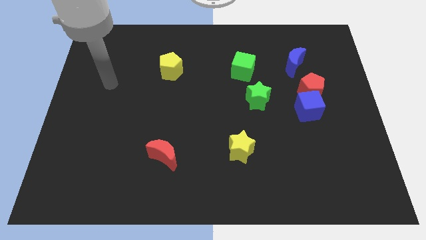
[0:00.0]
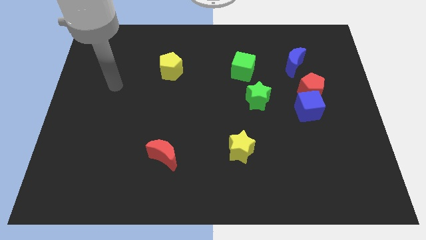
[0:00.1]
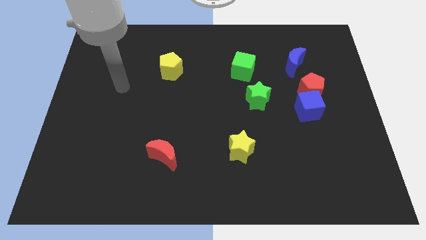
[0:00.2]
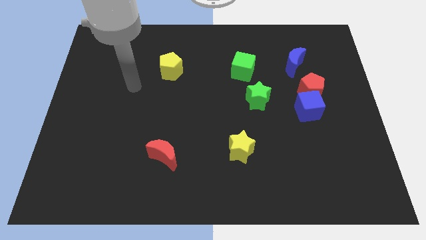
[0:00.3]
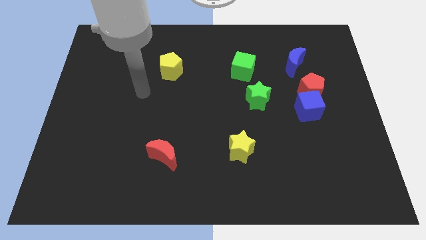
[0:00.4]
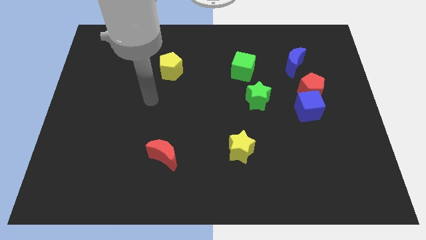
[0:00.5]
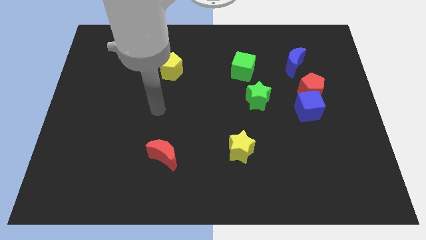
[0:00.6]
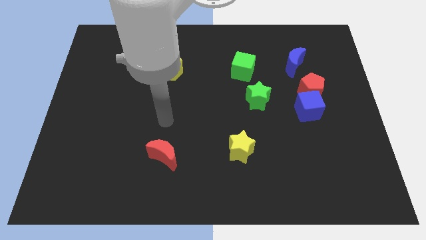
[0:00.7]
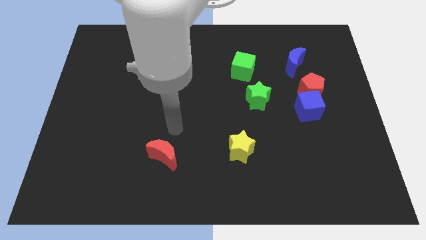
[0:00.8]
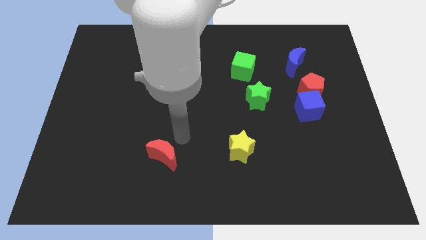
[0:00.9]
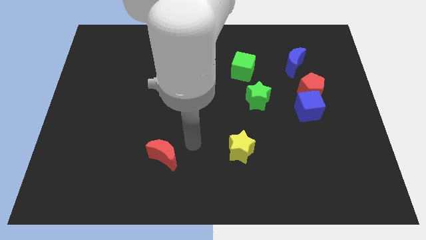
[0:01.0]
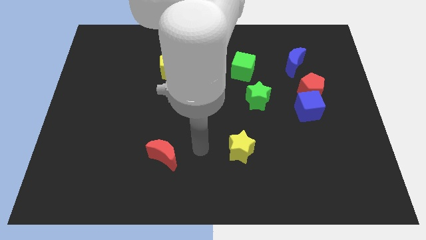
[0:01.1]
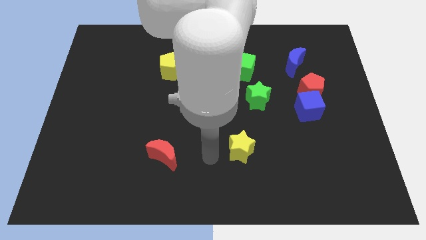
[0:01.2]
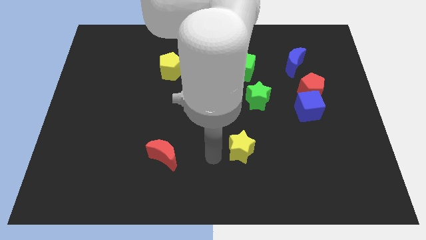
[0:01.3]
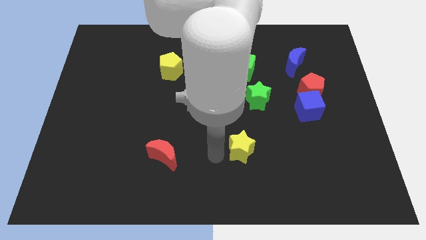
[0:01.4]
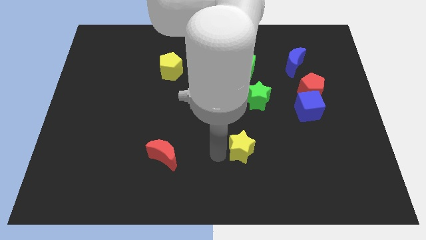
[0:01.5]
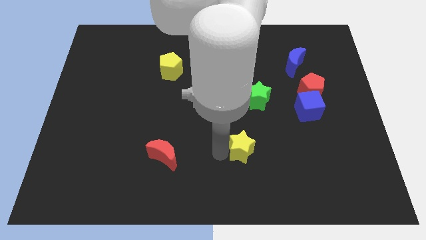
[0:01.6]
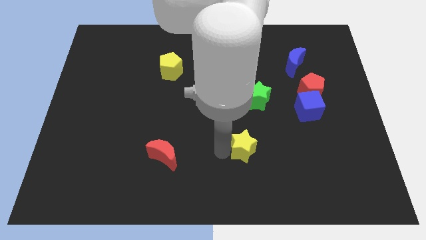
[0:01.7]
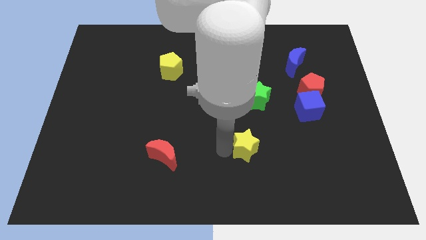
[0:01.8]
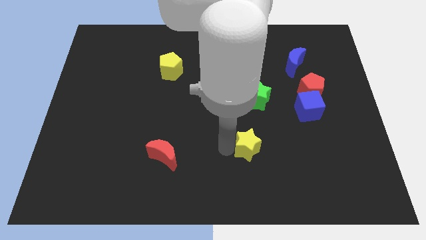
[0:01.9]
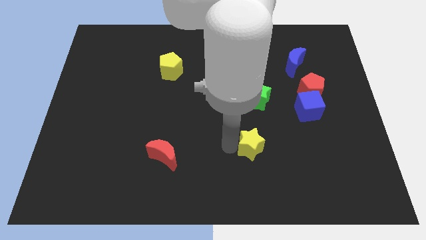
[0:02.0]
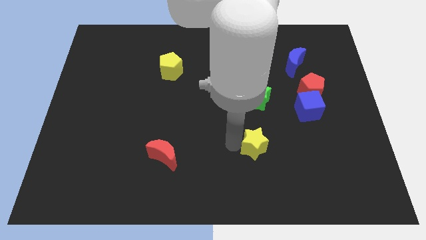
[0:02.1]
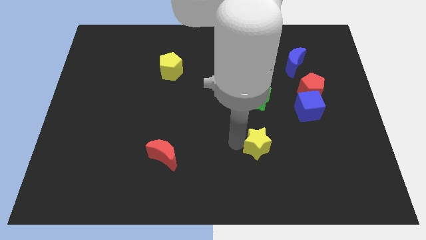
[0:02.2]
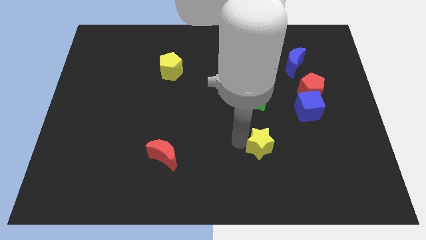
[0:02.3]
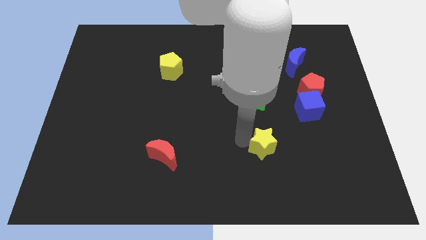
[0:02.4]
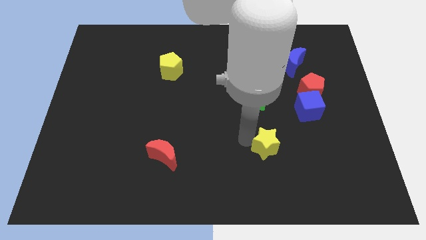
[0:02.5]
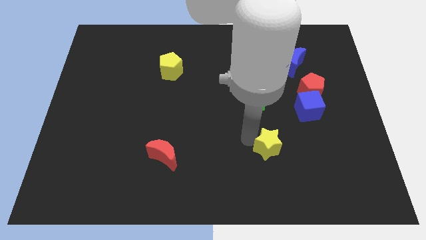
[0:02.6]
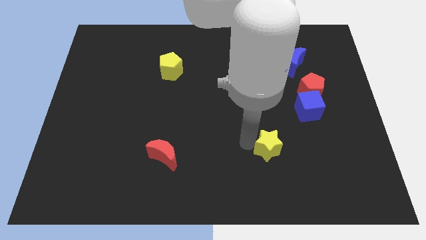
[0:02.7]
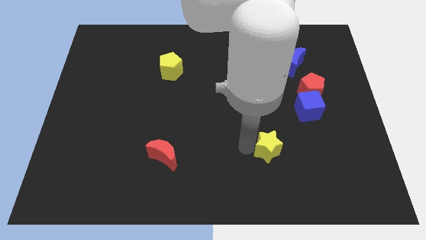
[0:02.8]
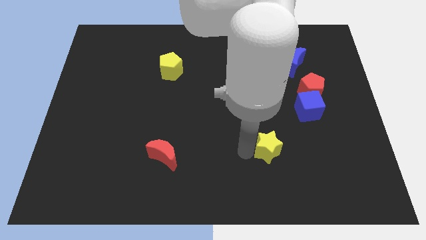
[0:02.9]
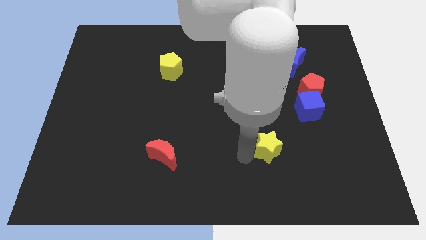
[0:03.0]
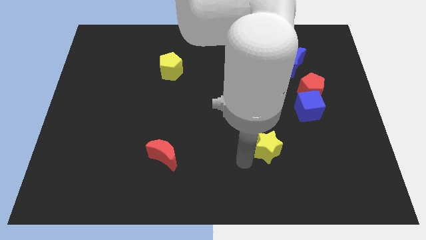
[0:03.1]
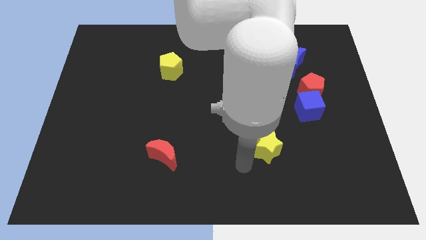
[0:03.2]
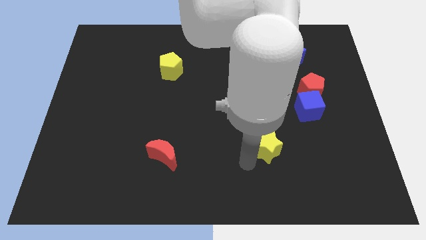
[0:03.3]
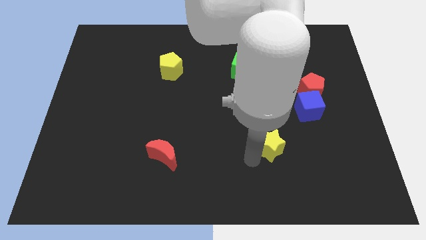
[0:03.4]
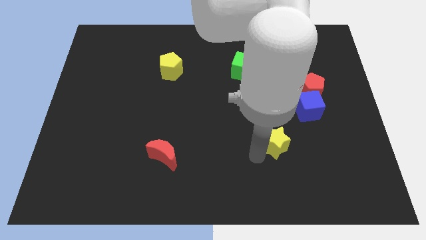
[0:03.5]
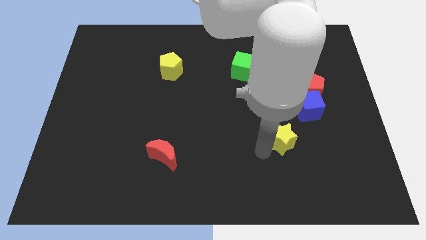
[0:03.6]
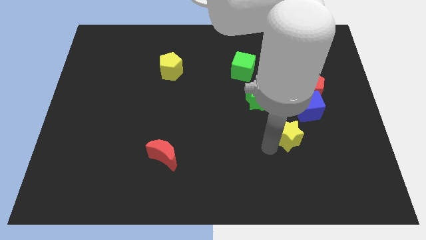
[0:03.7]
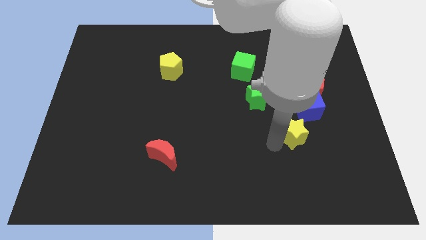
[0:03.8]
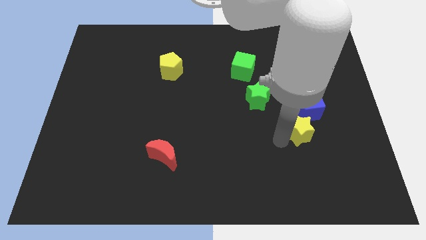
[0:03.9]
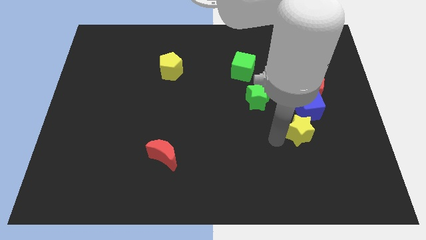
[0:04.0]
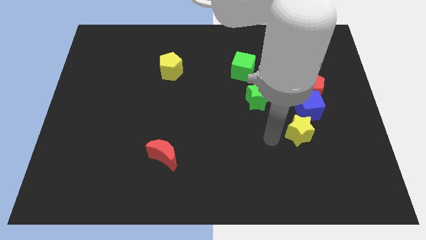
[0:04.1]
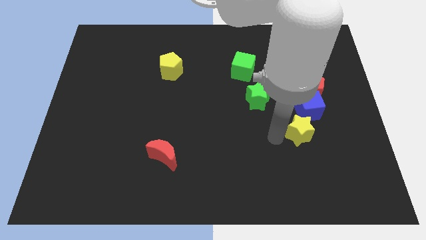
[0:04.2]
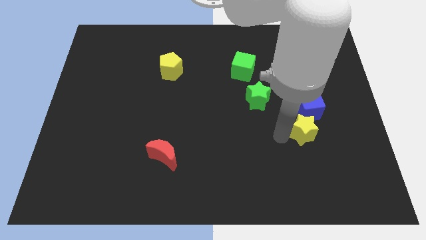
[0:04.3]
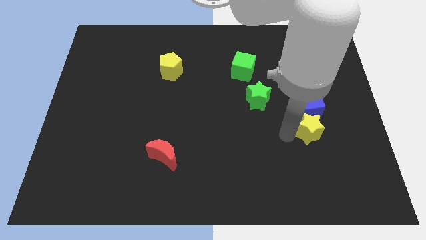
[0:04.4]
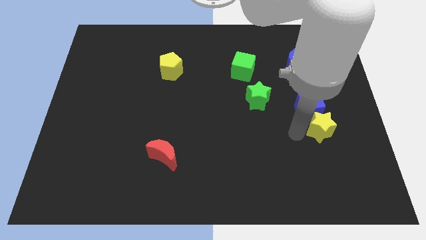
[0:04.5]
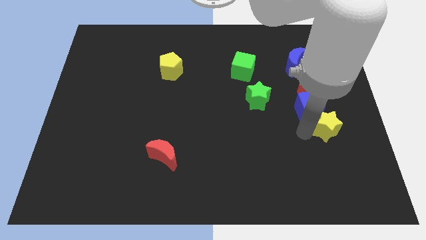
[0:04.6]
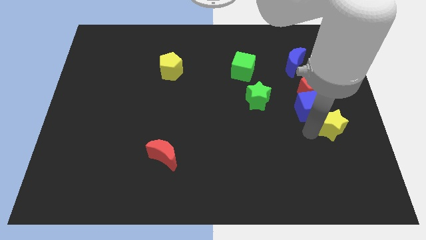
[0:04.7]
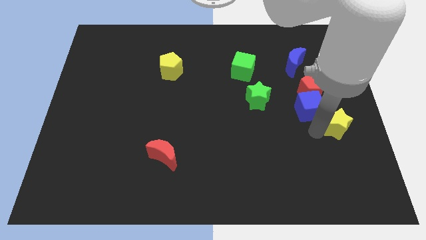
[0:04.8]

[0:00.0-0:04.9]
slide the yellow star to the right side

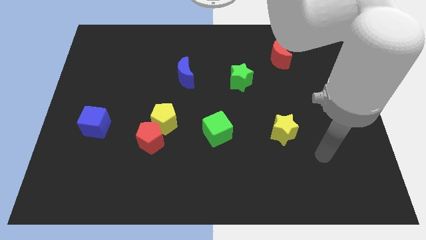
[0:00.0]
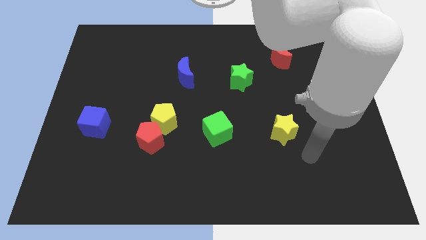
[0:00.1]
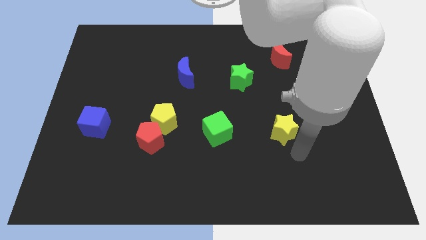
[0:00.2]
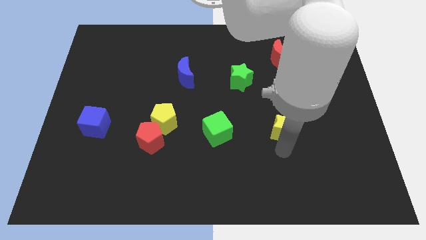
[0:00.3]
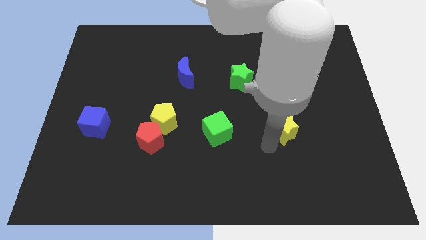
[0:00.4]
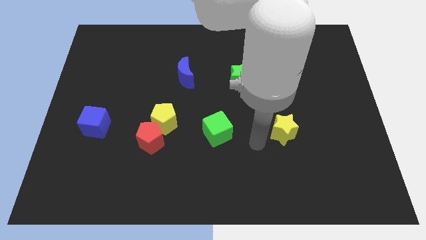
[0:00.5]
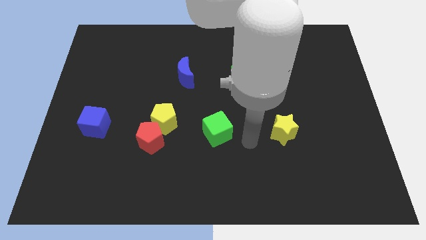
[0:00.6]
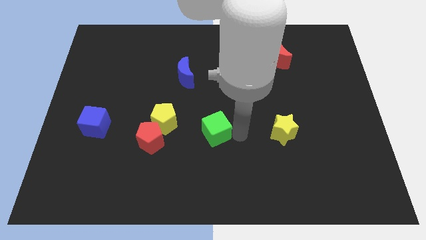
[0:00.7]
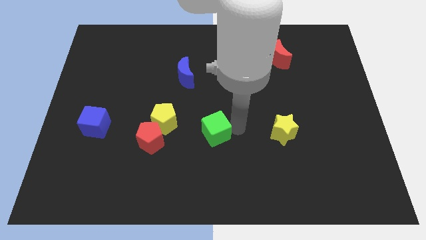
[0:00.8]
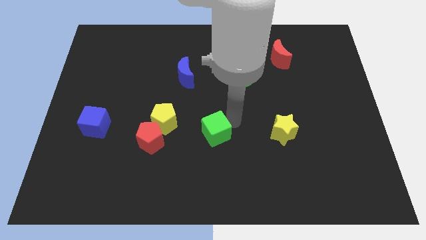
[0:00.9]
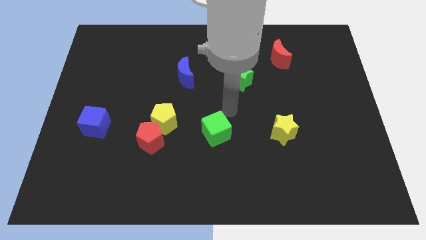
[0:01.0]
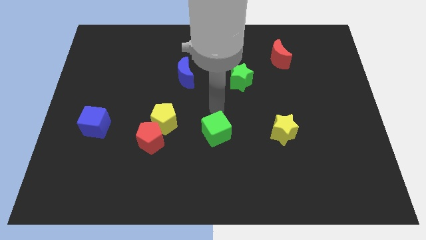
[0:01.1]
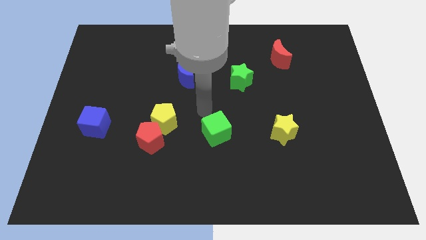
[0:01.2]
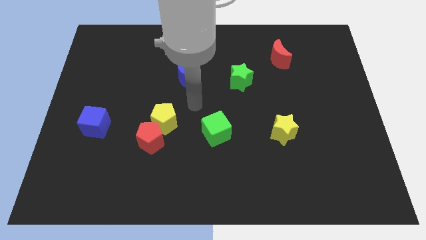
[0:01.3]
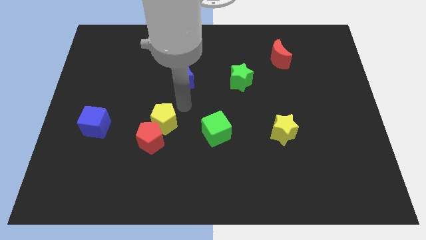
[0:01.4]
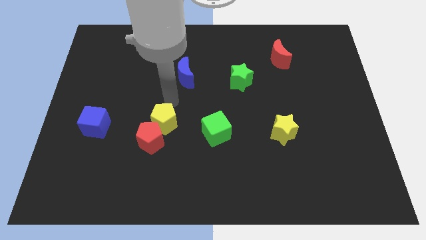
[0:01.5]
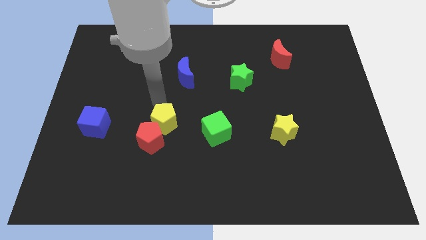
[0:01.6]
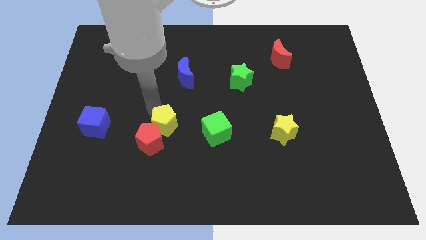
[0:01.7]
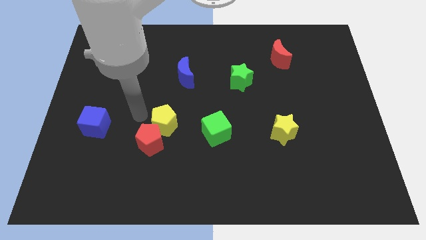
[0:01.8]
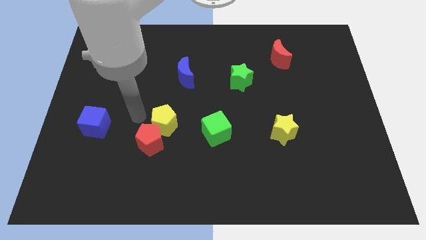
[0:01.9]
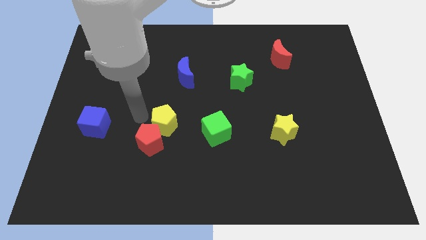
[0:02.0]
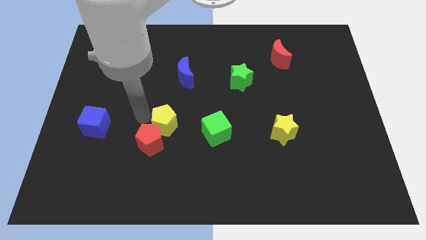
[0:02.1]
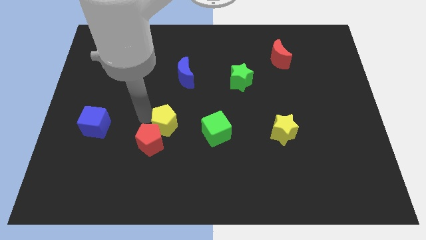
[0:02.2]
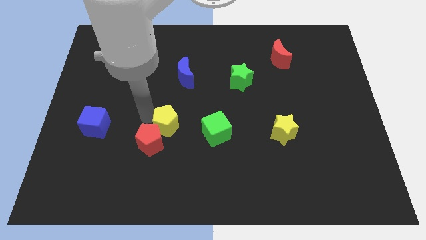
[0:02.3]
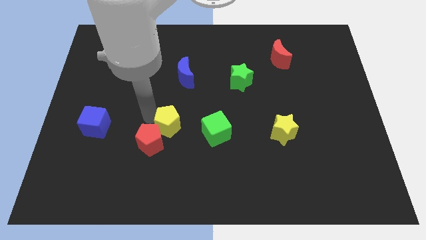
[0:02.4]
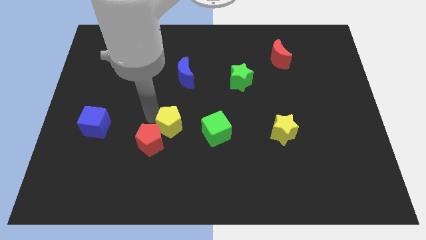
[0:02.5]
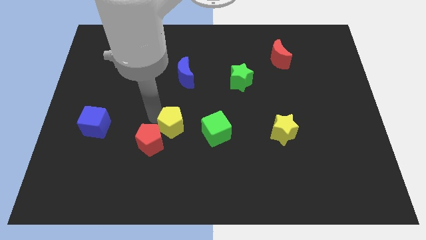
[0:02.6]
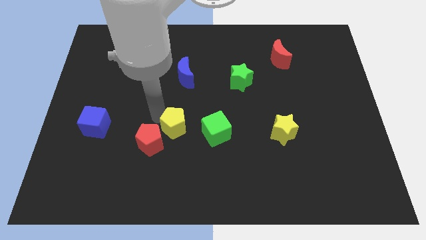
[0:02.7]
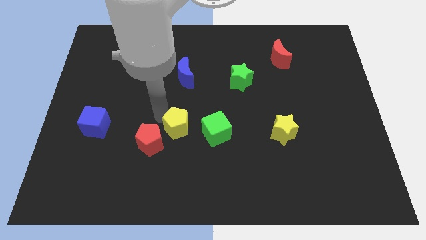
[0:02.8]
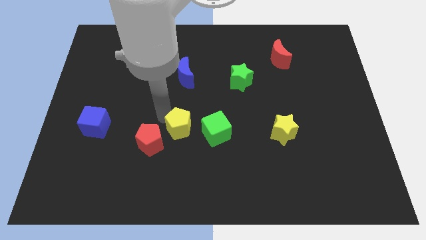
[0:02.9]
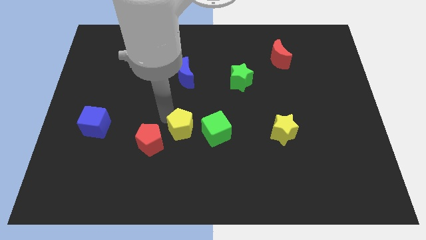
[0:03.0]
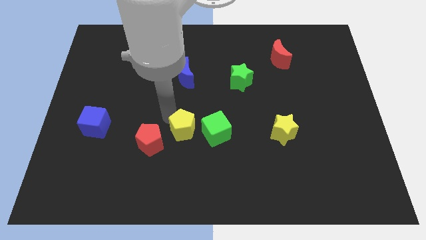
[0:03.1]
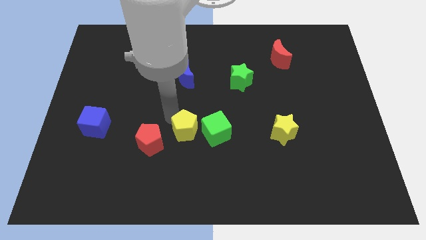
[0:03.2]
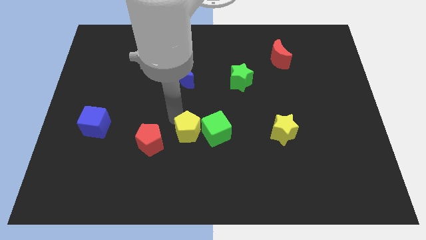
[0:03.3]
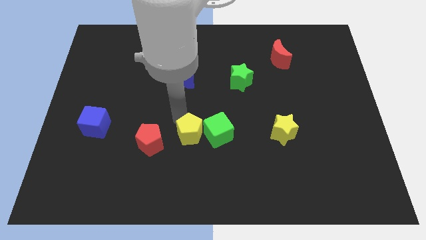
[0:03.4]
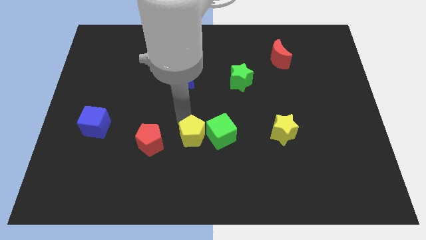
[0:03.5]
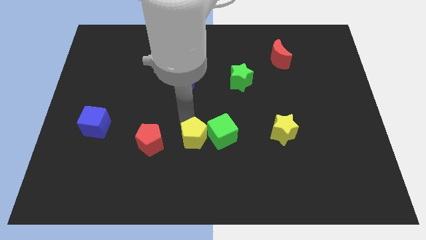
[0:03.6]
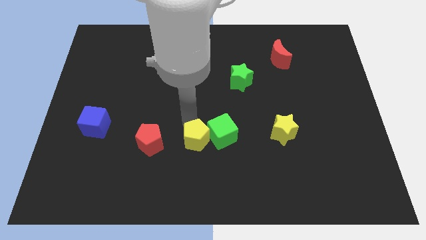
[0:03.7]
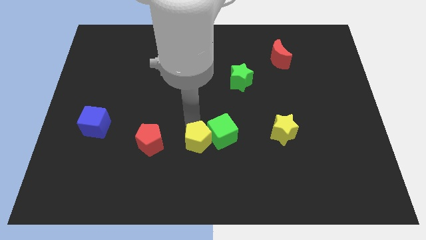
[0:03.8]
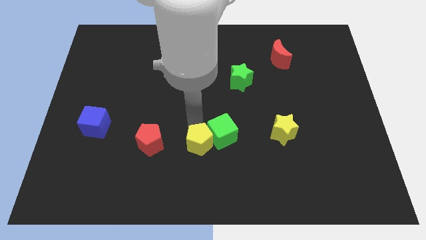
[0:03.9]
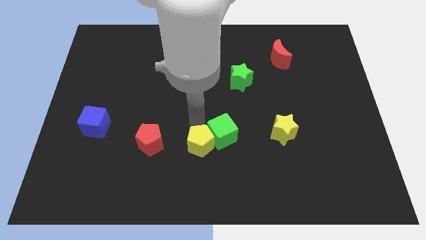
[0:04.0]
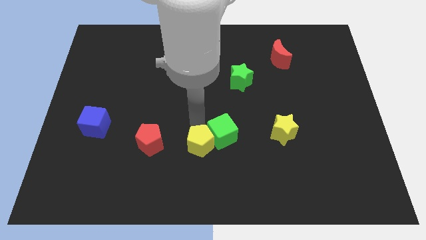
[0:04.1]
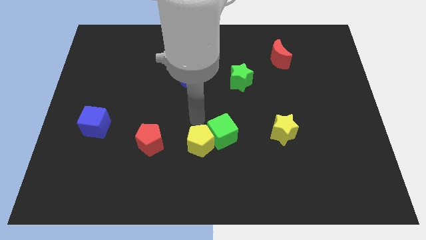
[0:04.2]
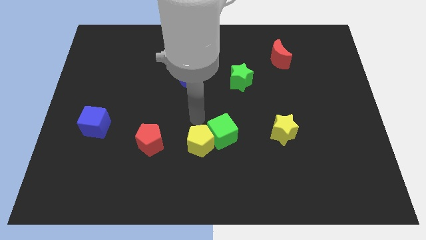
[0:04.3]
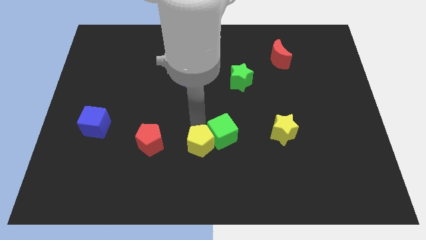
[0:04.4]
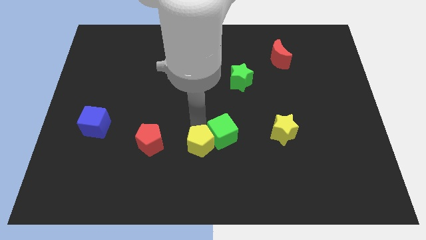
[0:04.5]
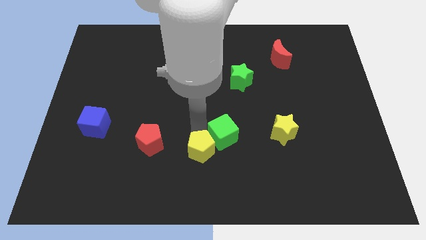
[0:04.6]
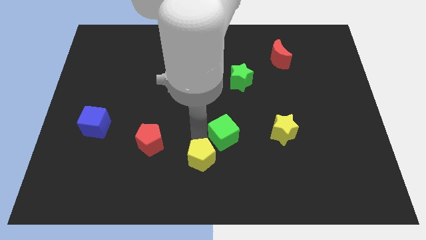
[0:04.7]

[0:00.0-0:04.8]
put the yellow pentagon to the bottom
